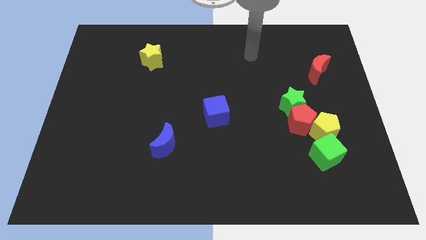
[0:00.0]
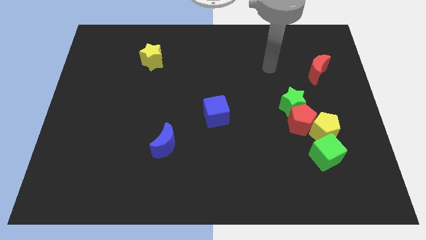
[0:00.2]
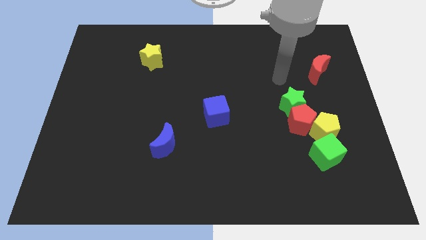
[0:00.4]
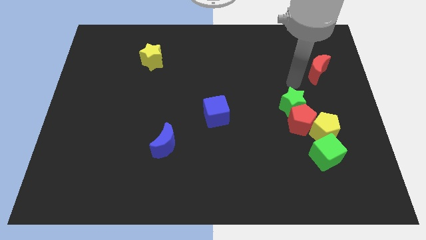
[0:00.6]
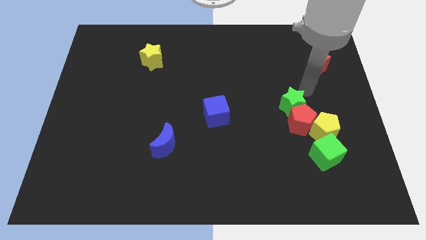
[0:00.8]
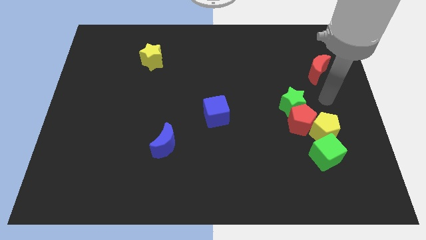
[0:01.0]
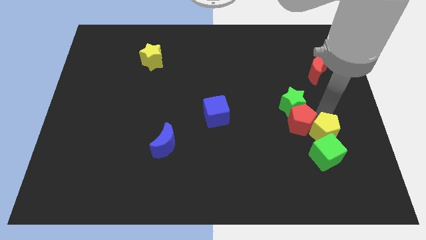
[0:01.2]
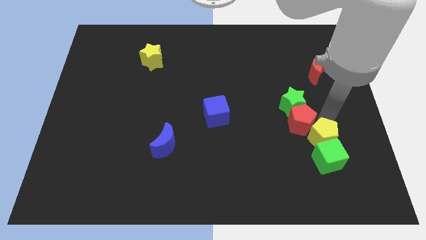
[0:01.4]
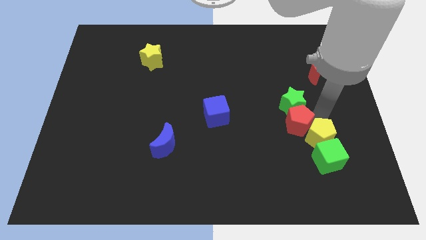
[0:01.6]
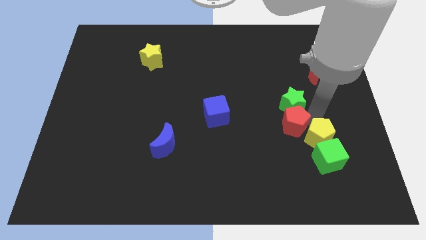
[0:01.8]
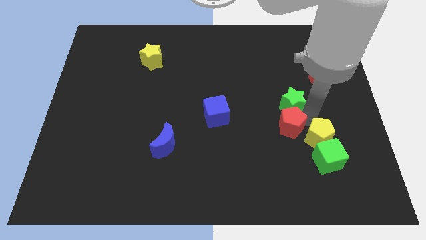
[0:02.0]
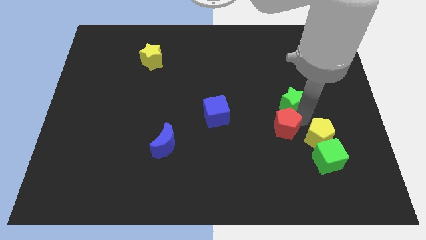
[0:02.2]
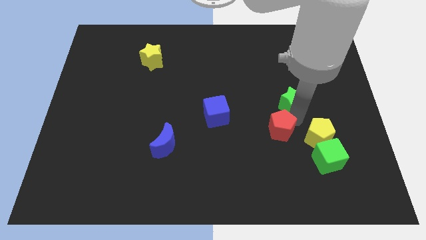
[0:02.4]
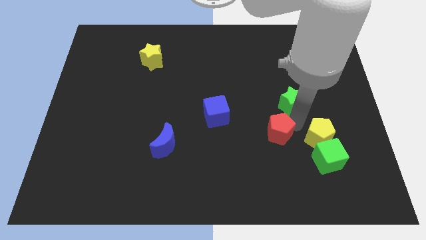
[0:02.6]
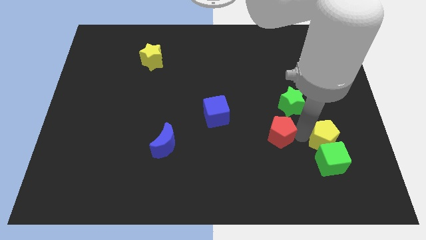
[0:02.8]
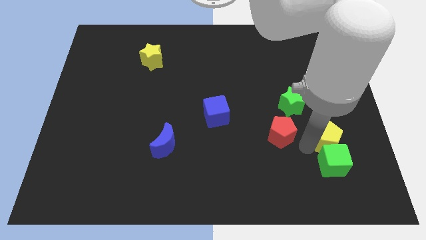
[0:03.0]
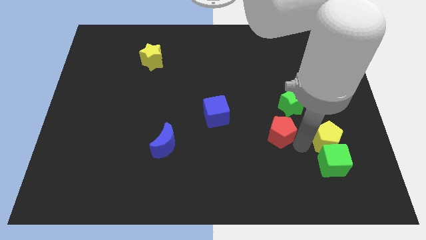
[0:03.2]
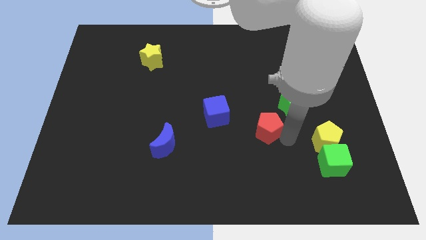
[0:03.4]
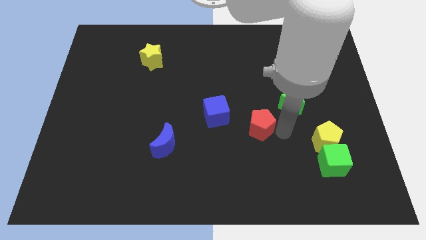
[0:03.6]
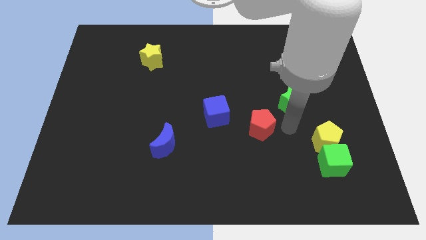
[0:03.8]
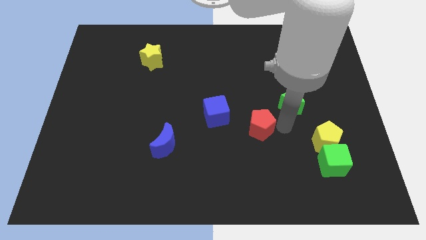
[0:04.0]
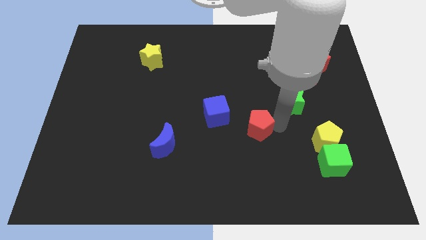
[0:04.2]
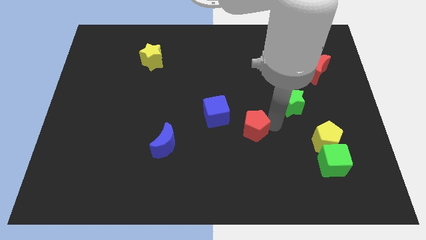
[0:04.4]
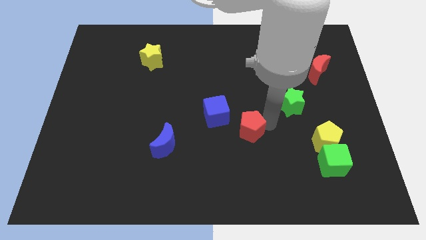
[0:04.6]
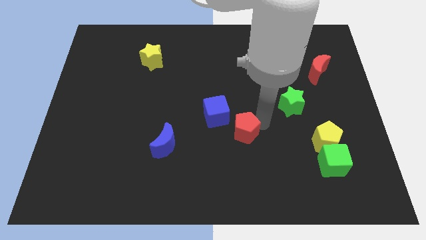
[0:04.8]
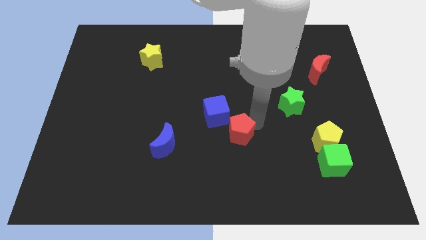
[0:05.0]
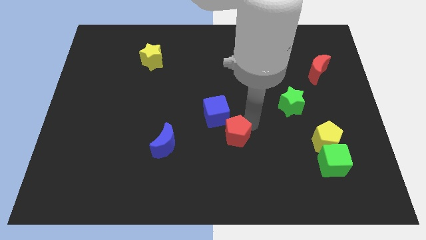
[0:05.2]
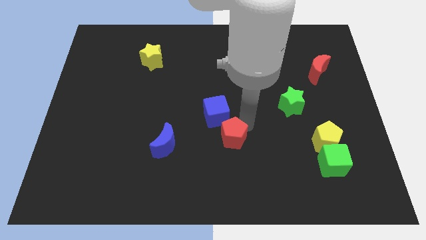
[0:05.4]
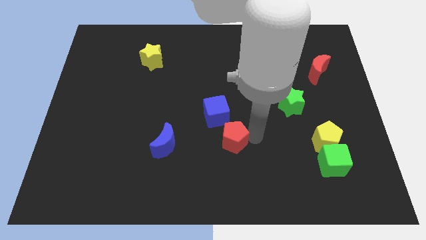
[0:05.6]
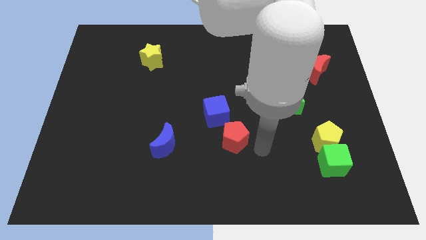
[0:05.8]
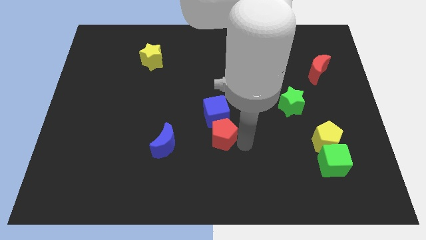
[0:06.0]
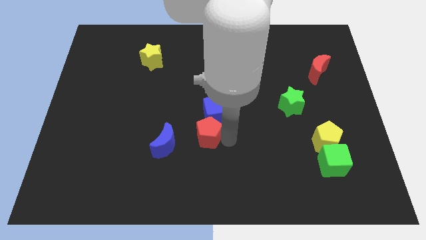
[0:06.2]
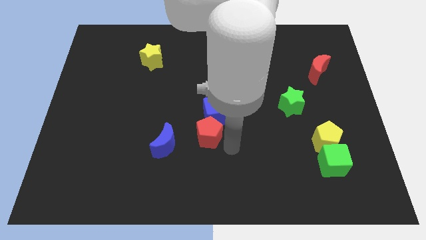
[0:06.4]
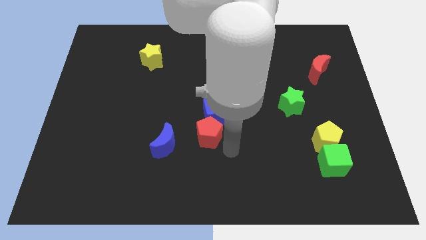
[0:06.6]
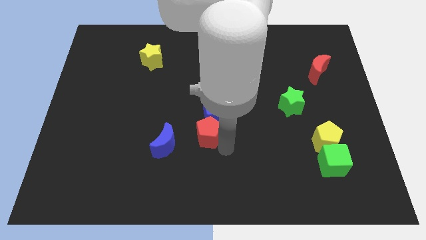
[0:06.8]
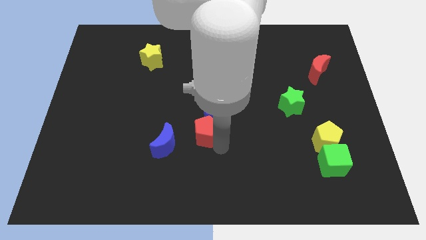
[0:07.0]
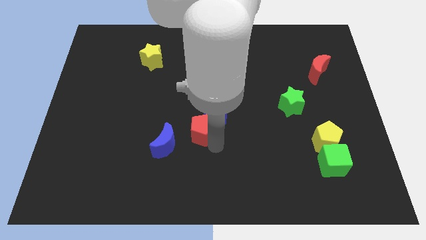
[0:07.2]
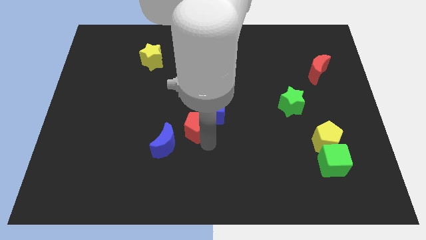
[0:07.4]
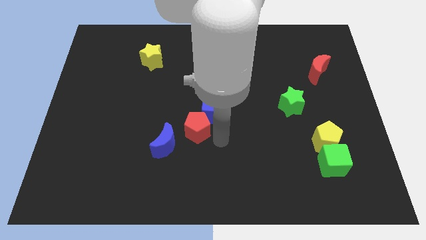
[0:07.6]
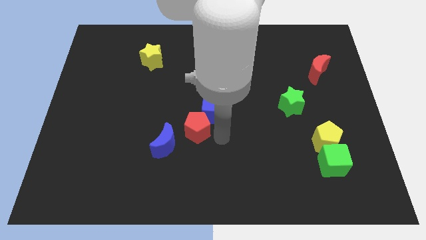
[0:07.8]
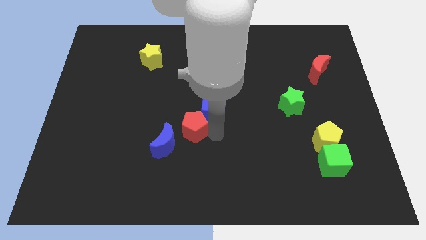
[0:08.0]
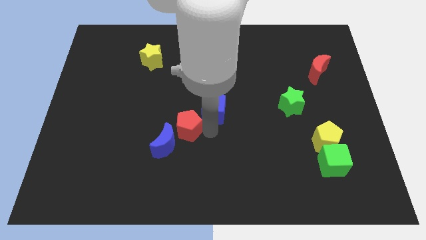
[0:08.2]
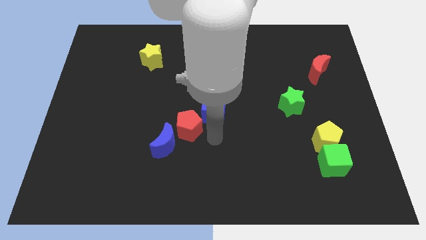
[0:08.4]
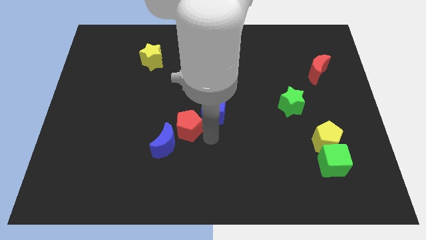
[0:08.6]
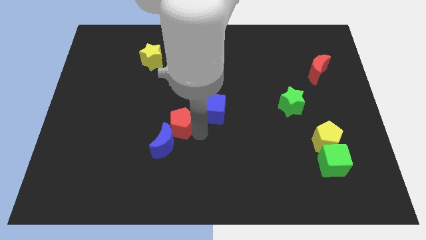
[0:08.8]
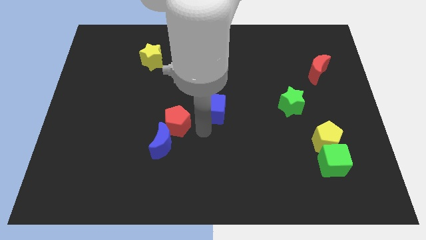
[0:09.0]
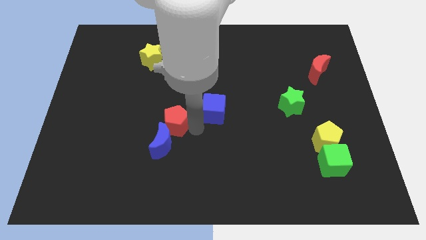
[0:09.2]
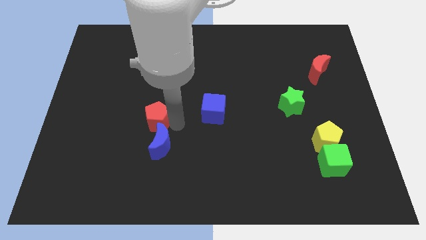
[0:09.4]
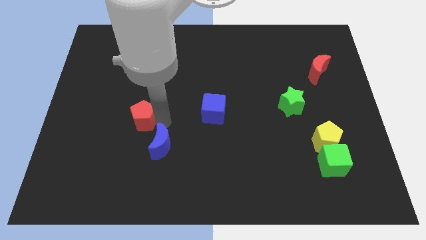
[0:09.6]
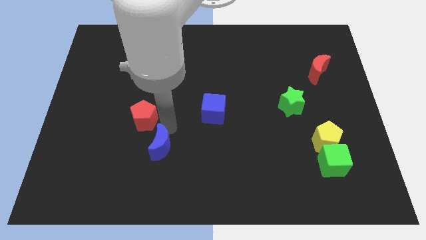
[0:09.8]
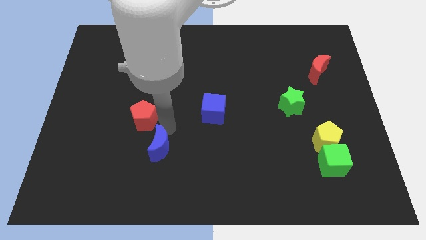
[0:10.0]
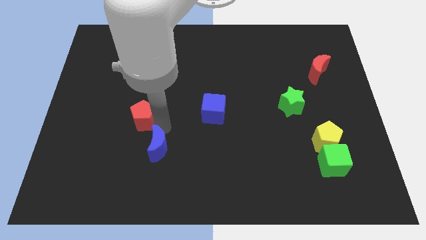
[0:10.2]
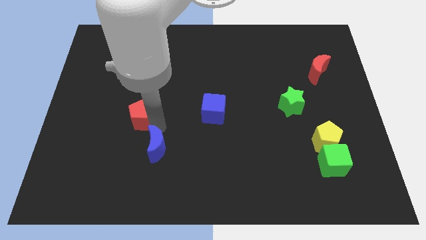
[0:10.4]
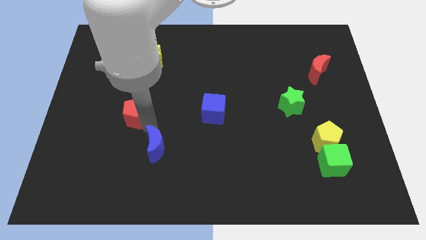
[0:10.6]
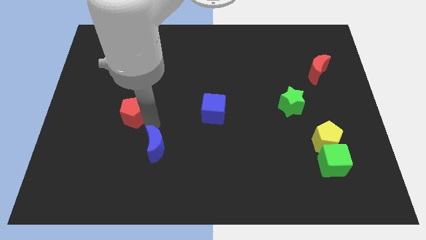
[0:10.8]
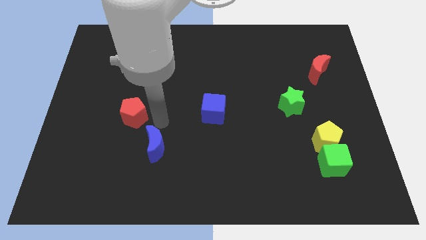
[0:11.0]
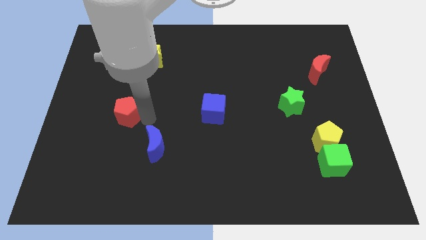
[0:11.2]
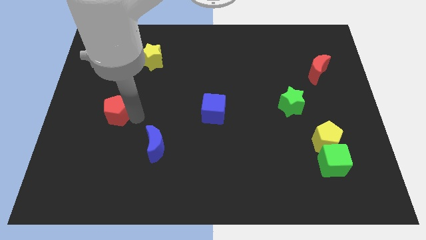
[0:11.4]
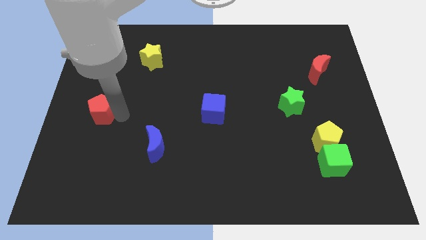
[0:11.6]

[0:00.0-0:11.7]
slide the red pentagon to the left side of the board
